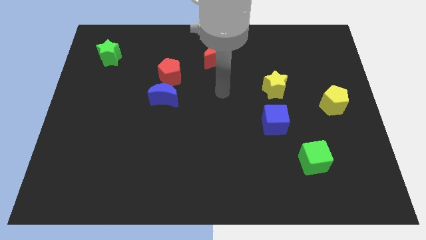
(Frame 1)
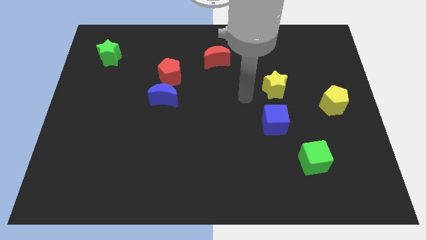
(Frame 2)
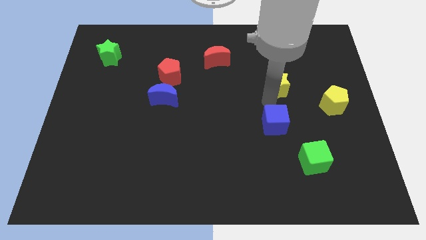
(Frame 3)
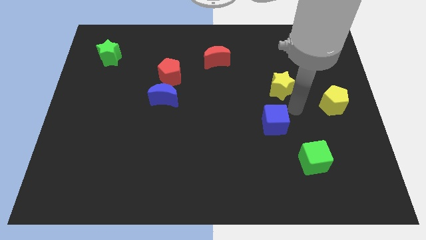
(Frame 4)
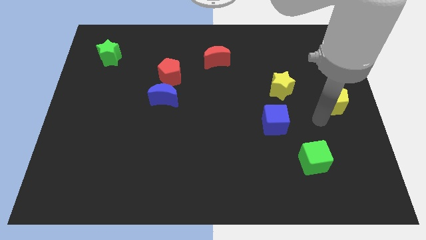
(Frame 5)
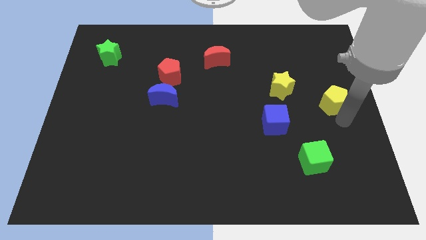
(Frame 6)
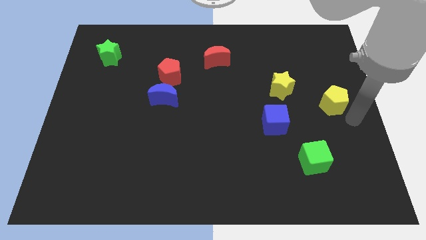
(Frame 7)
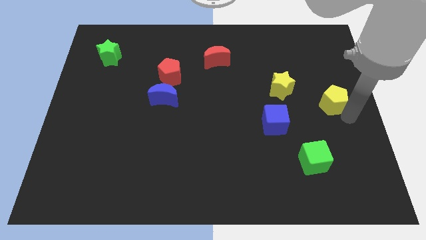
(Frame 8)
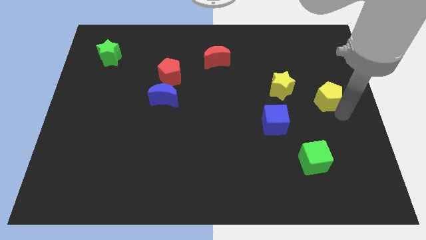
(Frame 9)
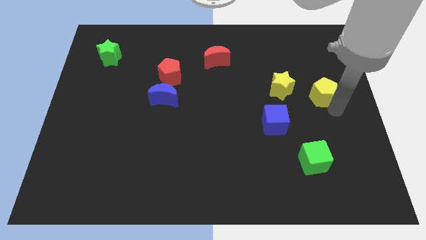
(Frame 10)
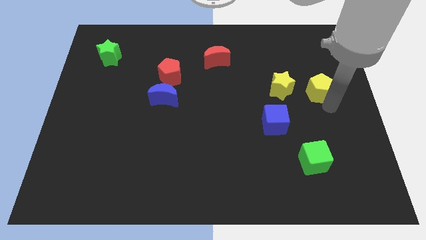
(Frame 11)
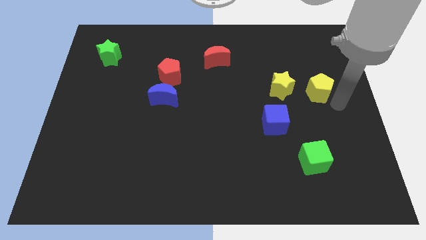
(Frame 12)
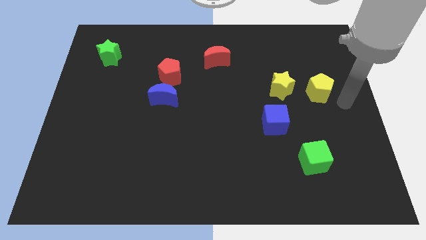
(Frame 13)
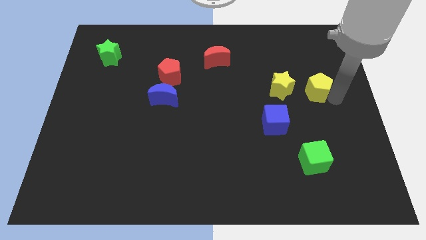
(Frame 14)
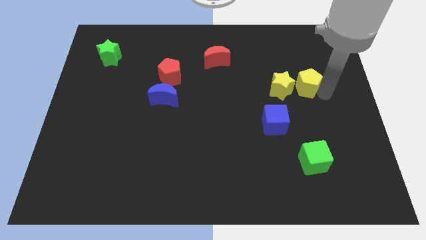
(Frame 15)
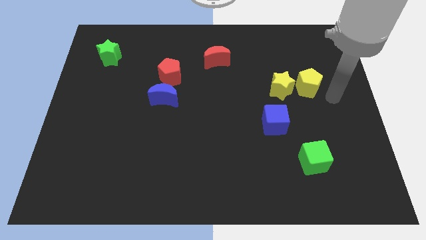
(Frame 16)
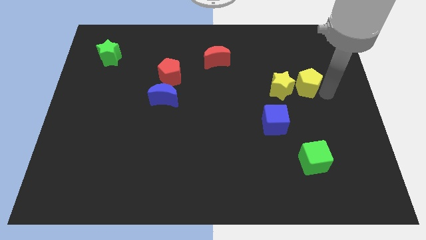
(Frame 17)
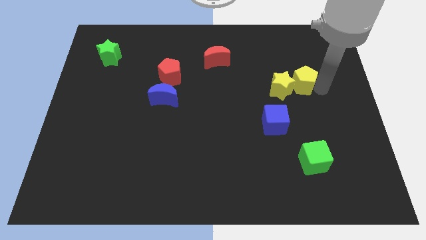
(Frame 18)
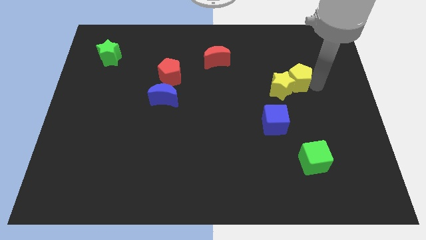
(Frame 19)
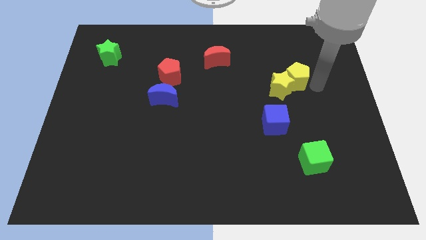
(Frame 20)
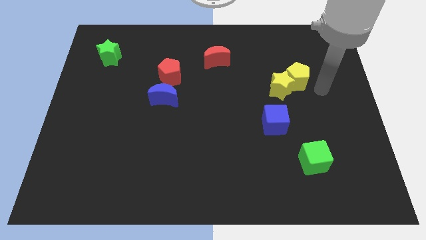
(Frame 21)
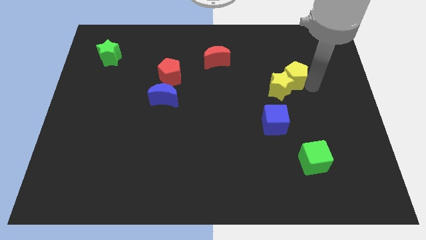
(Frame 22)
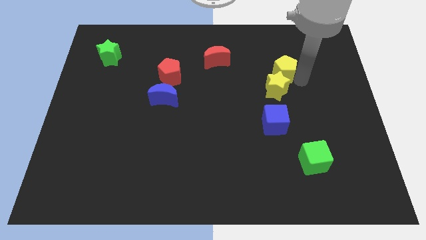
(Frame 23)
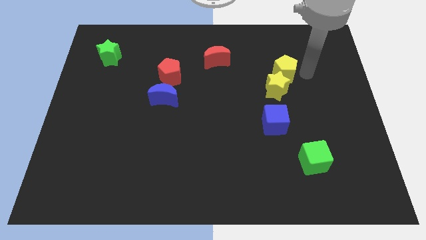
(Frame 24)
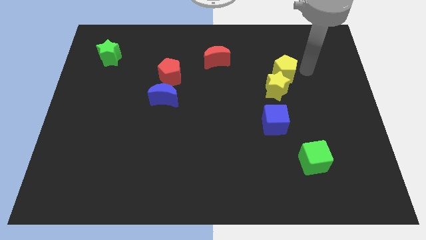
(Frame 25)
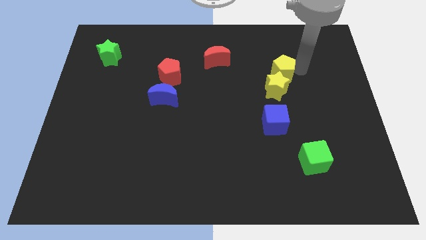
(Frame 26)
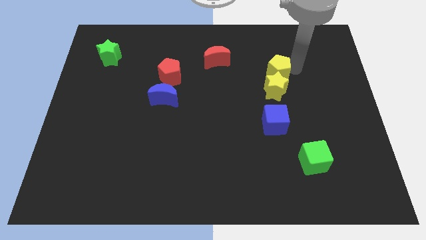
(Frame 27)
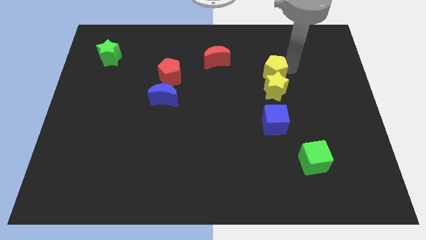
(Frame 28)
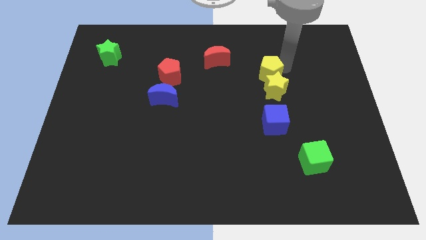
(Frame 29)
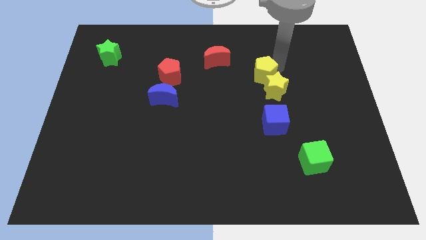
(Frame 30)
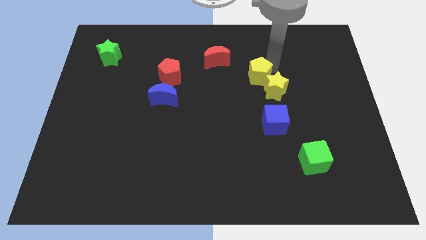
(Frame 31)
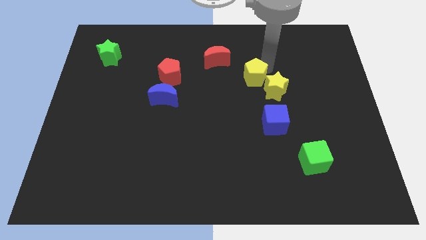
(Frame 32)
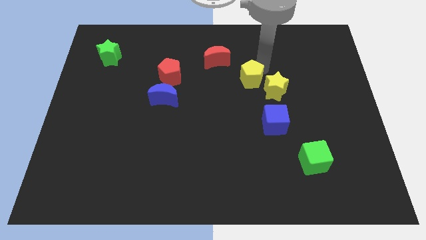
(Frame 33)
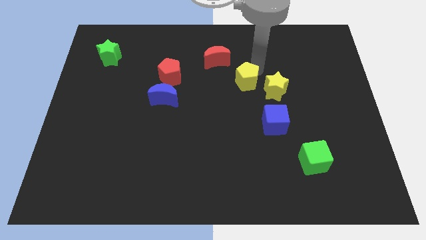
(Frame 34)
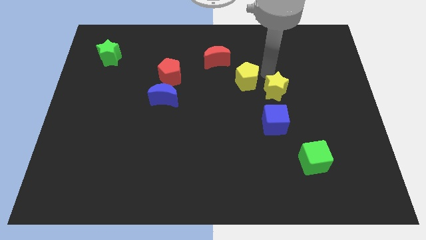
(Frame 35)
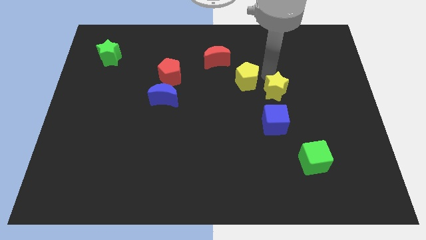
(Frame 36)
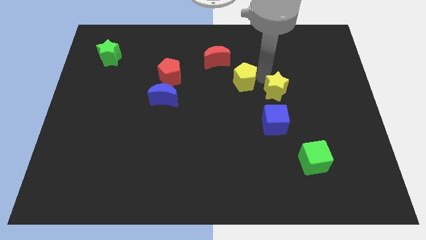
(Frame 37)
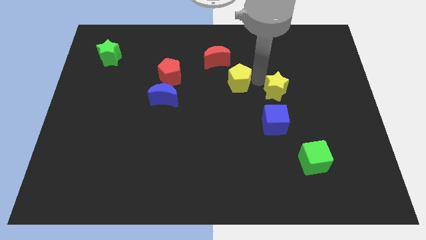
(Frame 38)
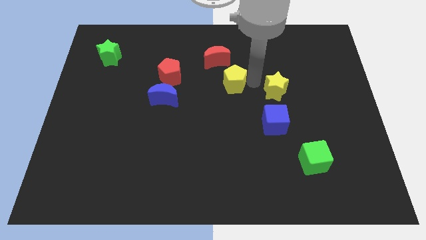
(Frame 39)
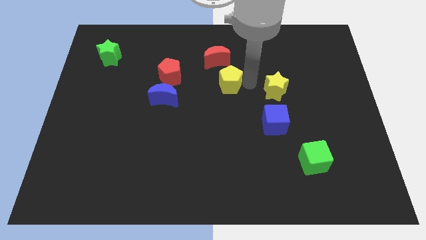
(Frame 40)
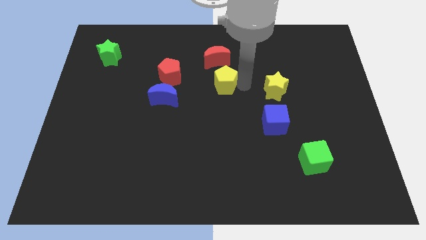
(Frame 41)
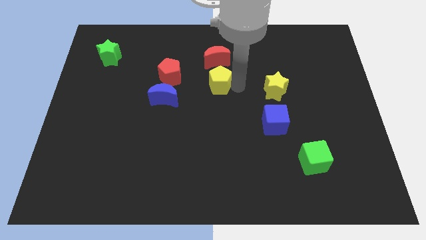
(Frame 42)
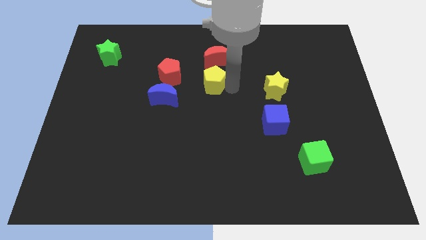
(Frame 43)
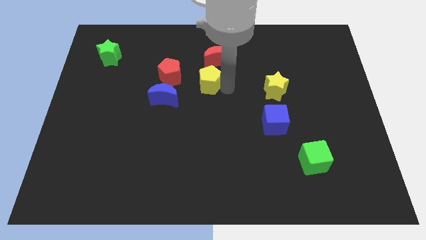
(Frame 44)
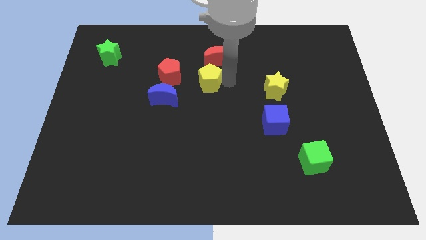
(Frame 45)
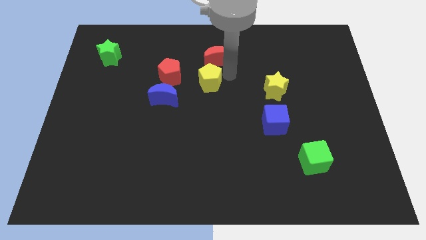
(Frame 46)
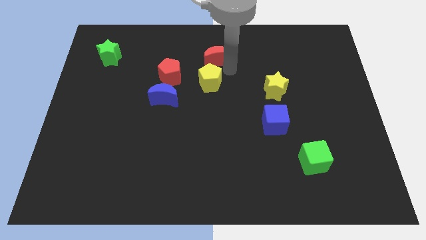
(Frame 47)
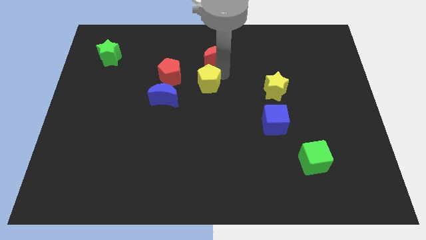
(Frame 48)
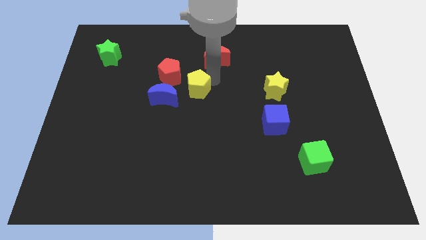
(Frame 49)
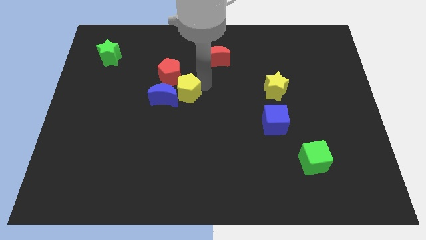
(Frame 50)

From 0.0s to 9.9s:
slide the yellow pentagon close to the blue moon

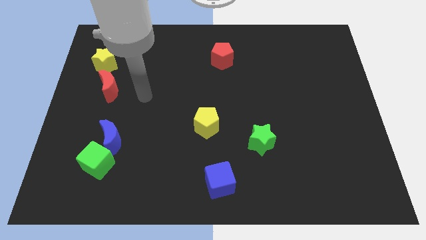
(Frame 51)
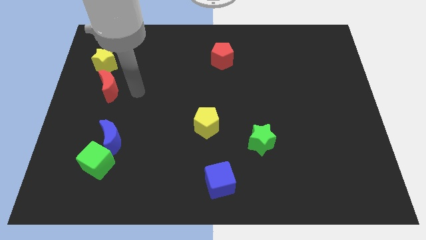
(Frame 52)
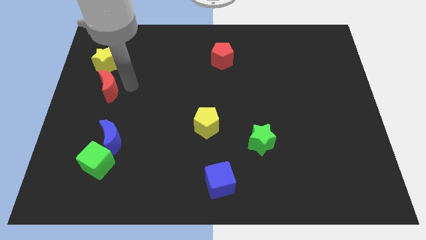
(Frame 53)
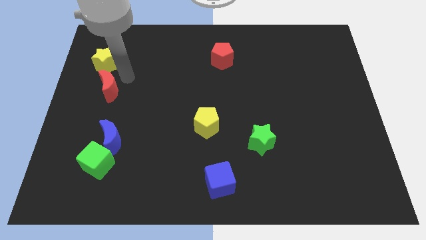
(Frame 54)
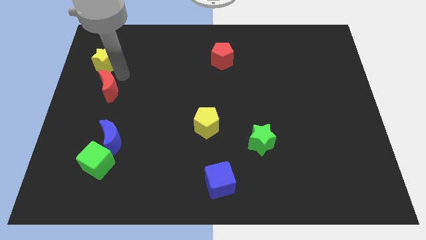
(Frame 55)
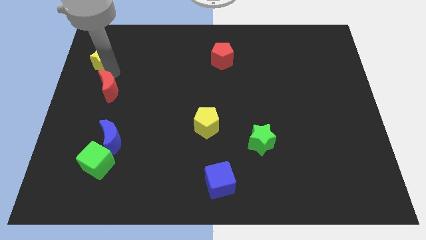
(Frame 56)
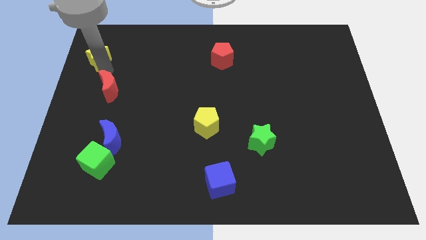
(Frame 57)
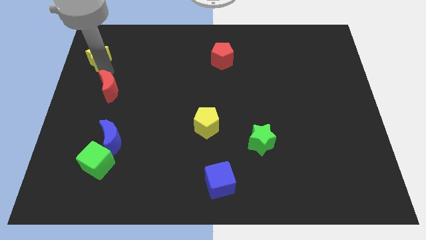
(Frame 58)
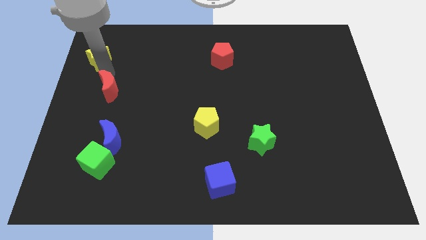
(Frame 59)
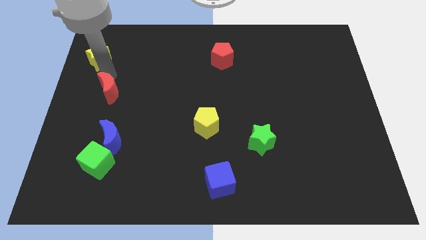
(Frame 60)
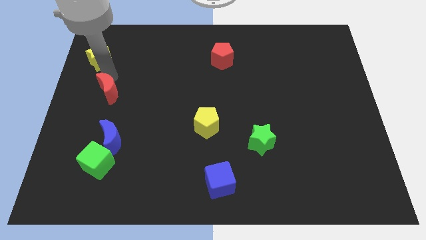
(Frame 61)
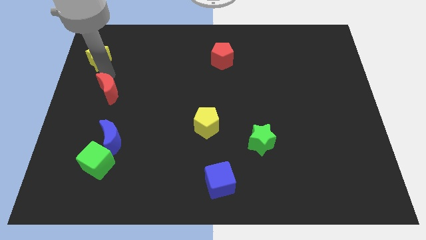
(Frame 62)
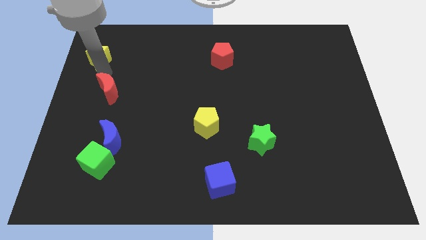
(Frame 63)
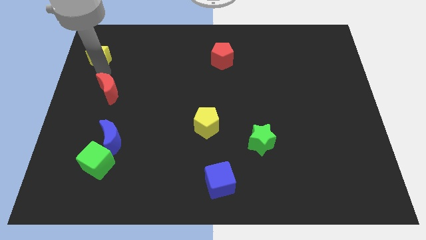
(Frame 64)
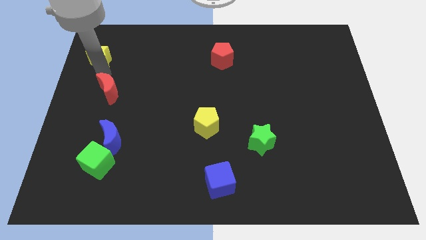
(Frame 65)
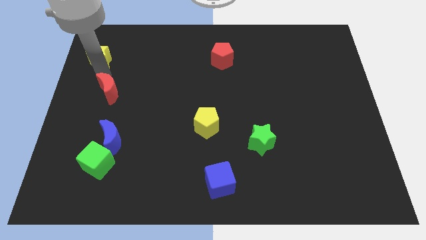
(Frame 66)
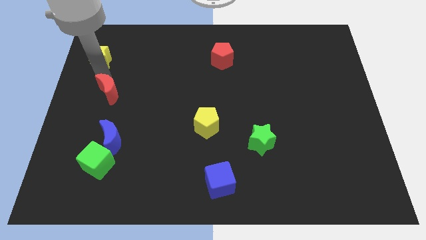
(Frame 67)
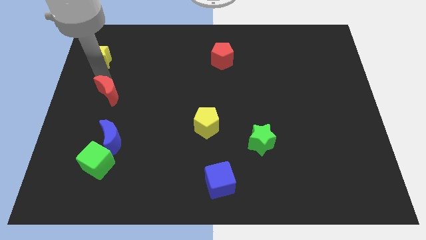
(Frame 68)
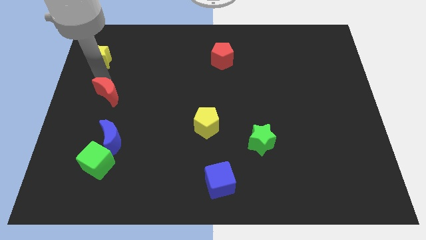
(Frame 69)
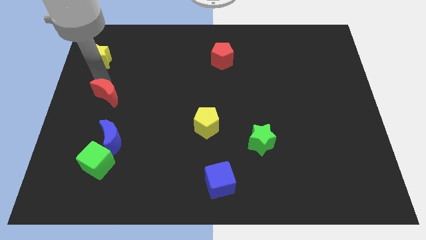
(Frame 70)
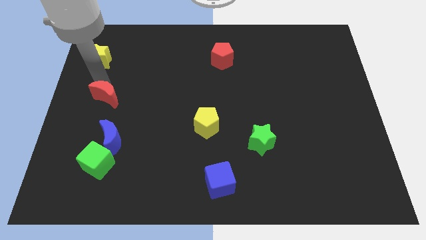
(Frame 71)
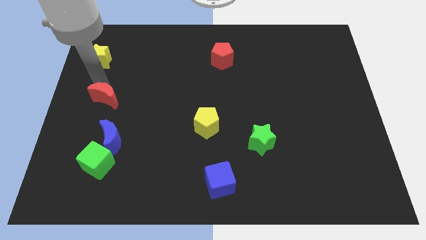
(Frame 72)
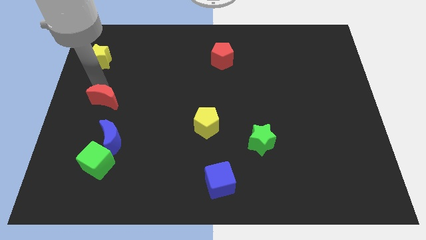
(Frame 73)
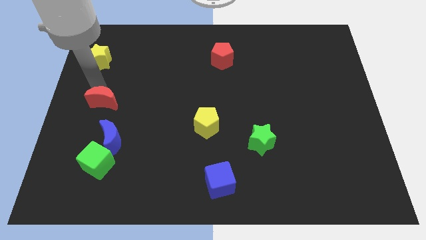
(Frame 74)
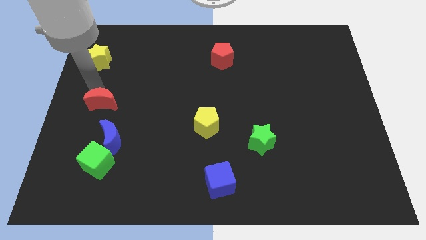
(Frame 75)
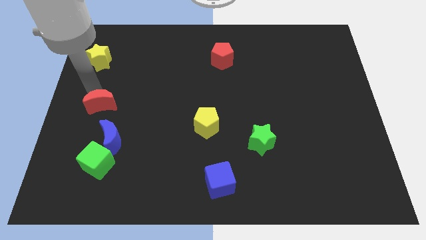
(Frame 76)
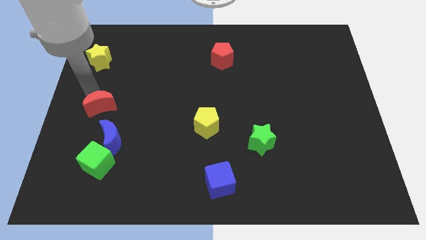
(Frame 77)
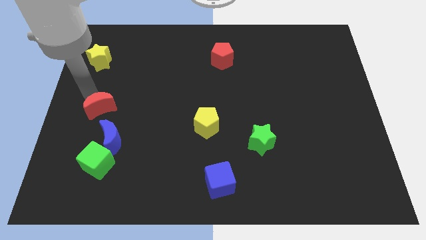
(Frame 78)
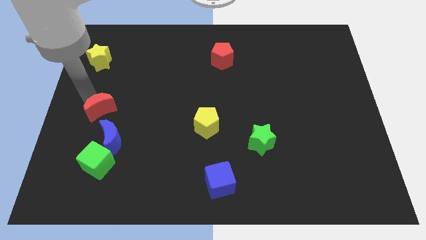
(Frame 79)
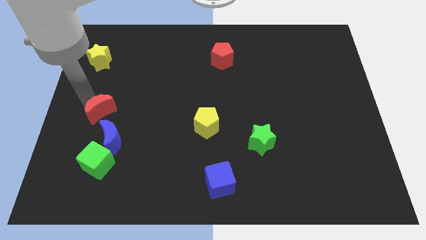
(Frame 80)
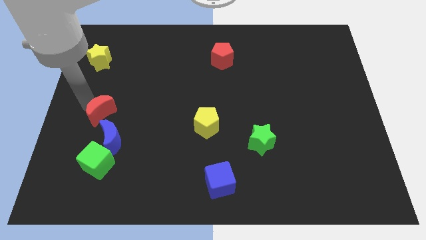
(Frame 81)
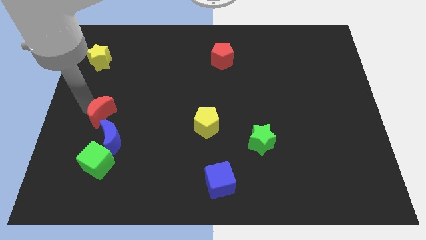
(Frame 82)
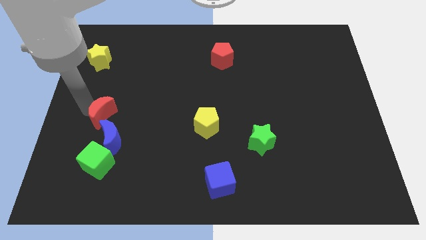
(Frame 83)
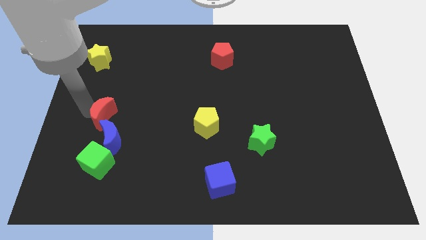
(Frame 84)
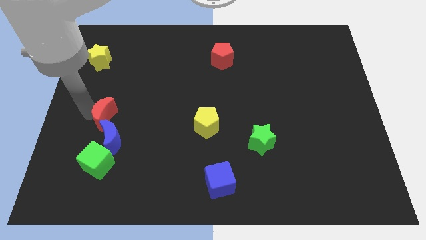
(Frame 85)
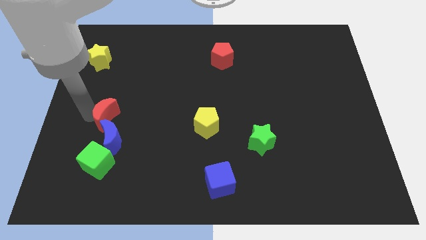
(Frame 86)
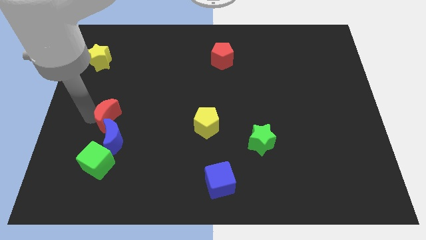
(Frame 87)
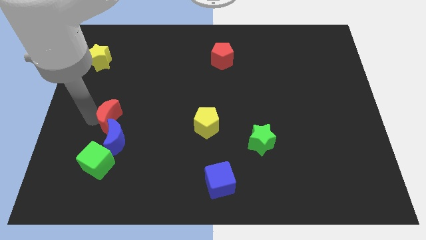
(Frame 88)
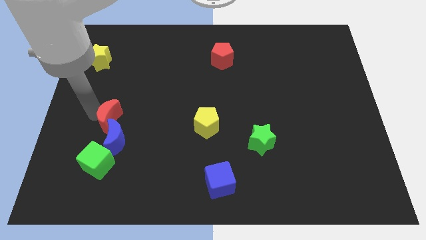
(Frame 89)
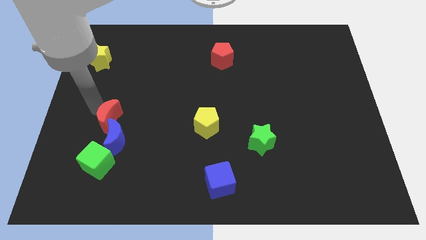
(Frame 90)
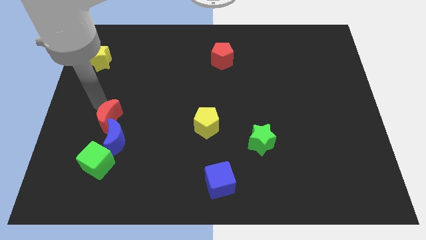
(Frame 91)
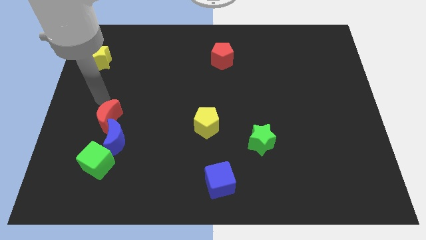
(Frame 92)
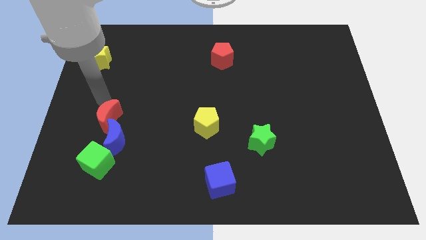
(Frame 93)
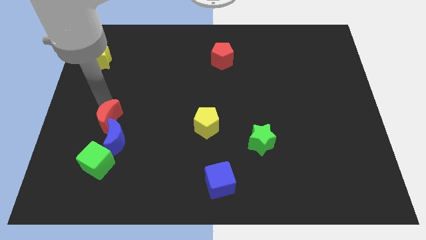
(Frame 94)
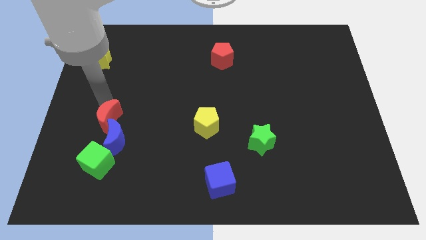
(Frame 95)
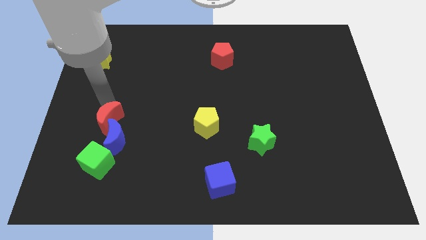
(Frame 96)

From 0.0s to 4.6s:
slide the red moon close to the blue moon
